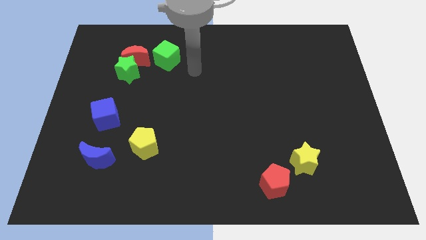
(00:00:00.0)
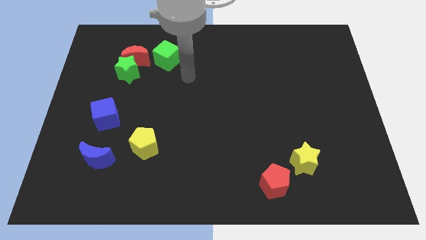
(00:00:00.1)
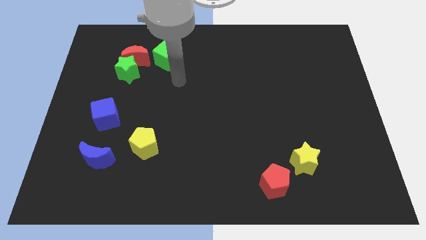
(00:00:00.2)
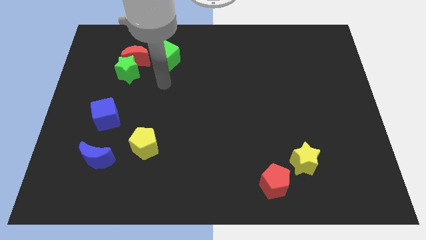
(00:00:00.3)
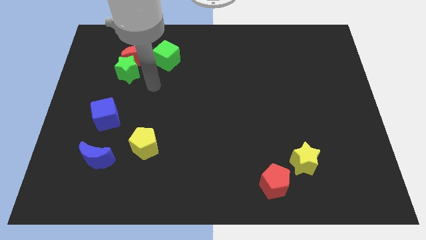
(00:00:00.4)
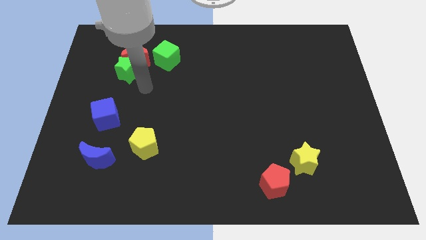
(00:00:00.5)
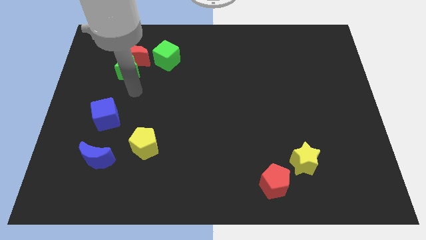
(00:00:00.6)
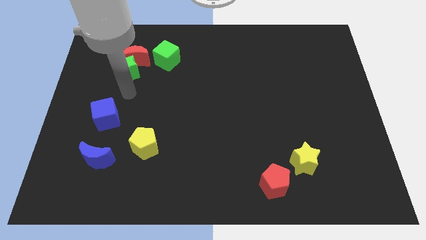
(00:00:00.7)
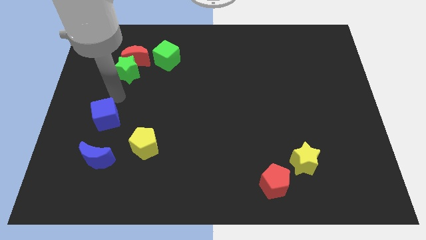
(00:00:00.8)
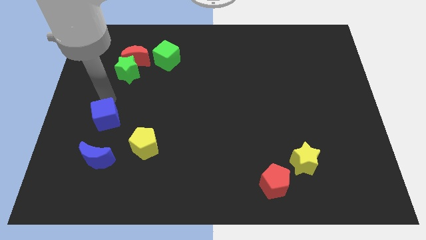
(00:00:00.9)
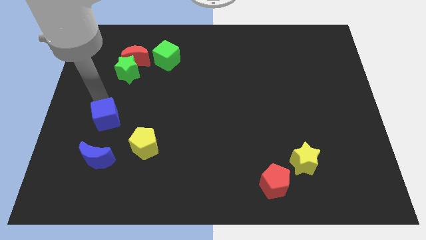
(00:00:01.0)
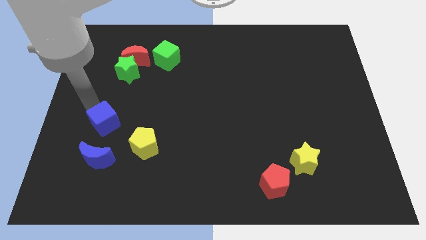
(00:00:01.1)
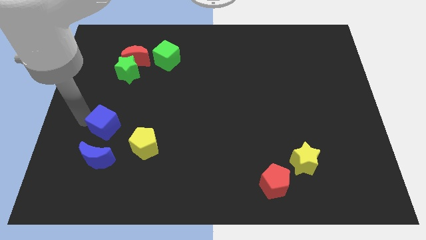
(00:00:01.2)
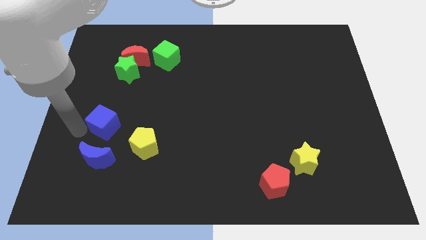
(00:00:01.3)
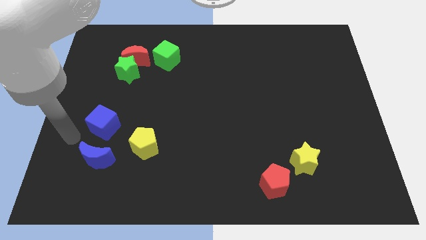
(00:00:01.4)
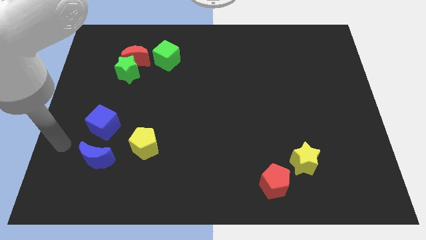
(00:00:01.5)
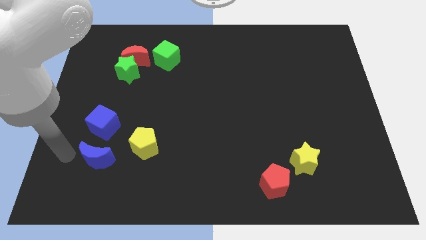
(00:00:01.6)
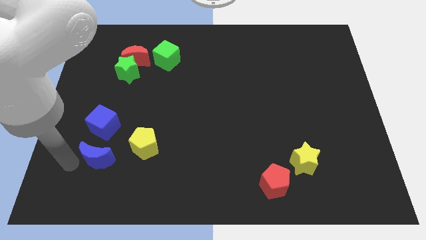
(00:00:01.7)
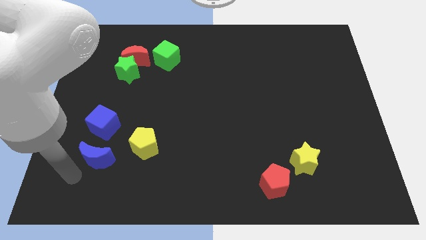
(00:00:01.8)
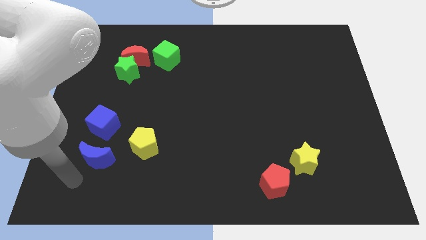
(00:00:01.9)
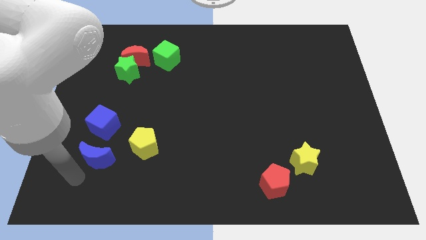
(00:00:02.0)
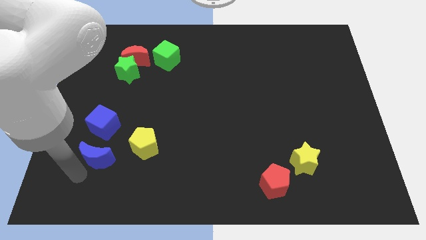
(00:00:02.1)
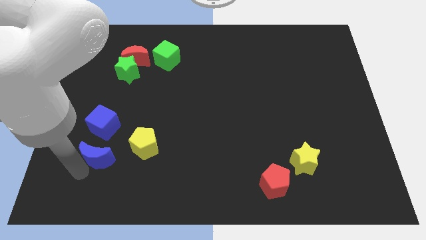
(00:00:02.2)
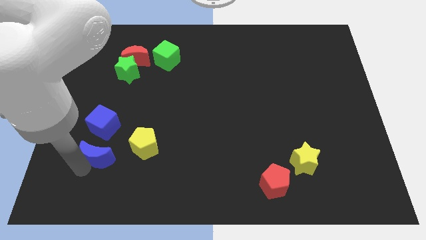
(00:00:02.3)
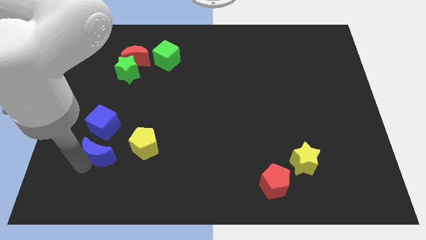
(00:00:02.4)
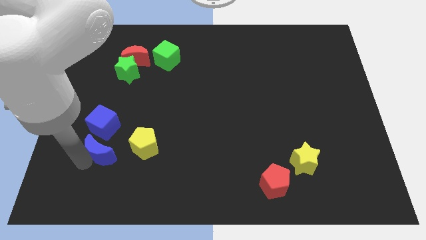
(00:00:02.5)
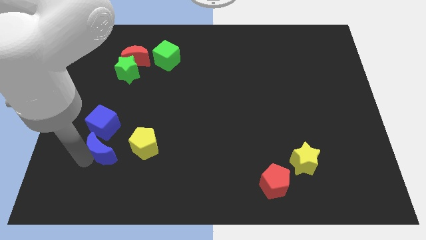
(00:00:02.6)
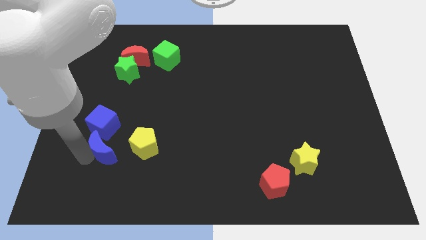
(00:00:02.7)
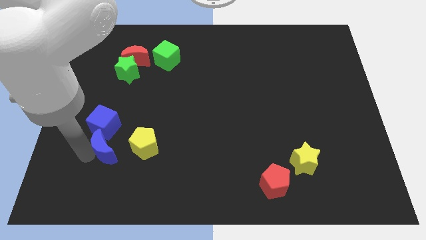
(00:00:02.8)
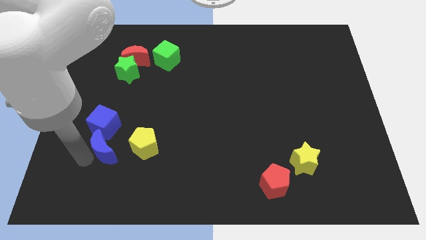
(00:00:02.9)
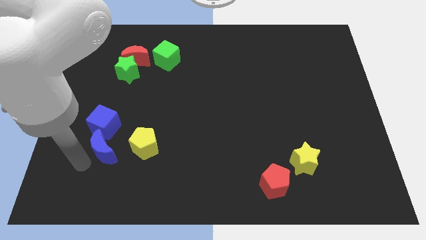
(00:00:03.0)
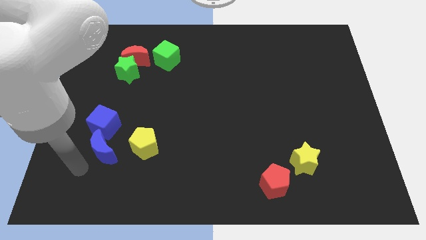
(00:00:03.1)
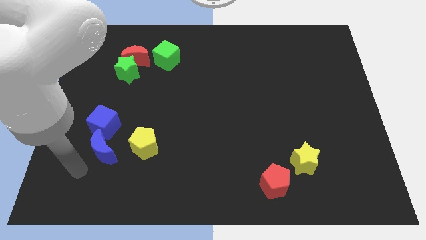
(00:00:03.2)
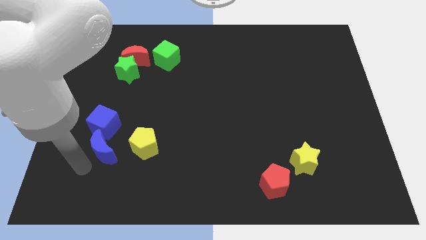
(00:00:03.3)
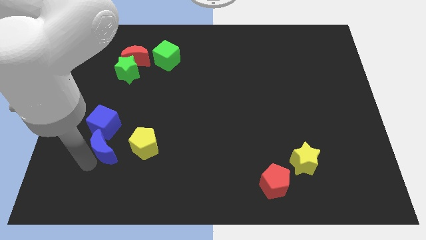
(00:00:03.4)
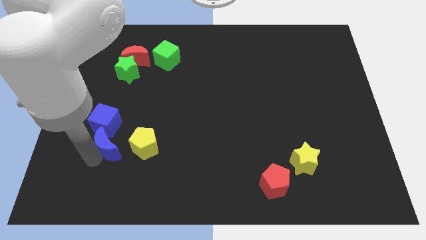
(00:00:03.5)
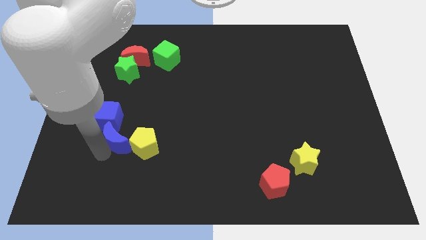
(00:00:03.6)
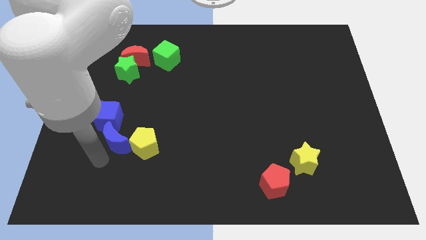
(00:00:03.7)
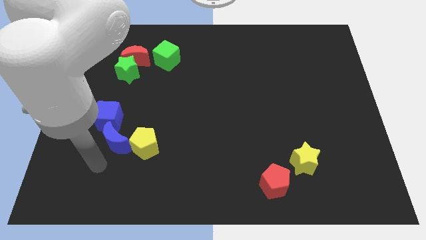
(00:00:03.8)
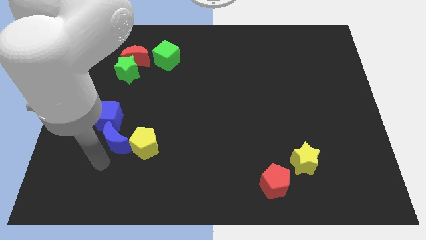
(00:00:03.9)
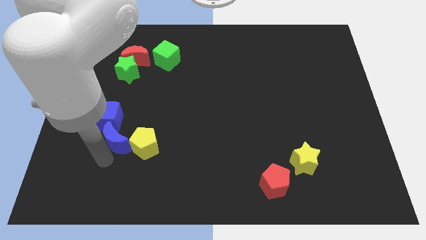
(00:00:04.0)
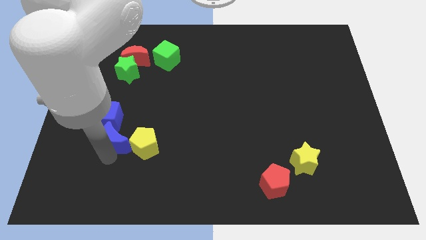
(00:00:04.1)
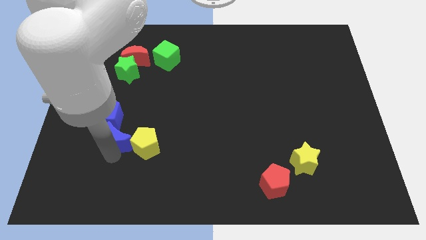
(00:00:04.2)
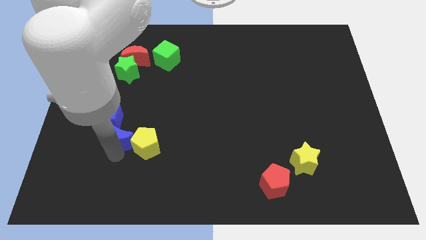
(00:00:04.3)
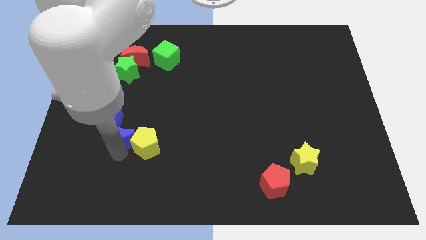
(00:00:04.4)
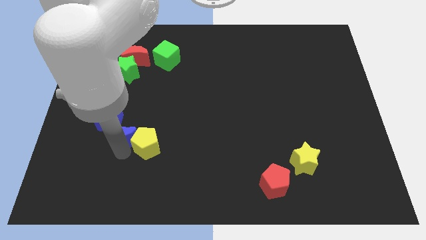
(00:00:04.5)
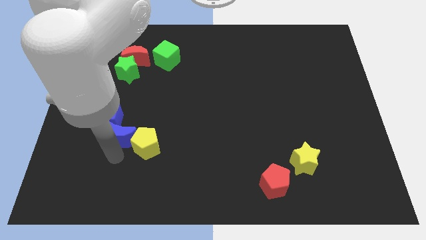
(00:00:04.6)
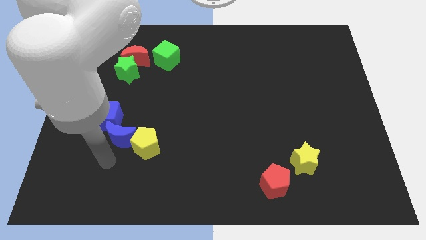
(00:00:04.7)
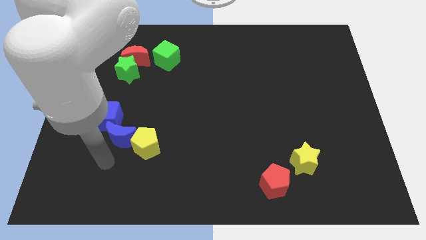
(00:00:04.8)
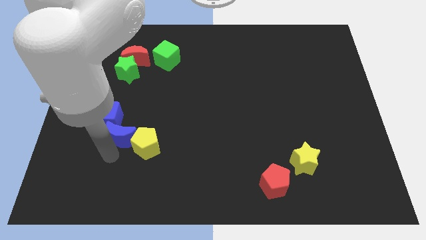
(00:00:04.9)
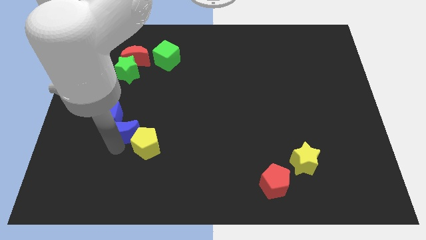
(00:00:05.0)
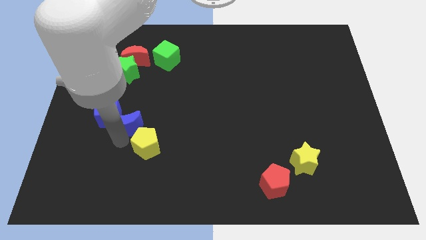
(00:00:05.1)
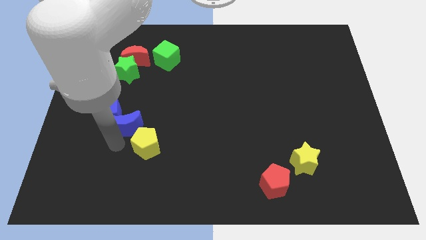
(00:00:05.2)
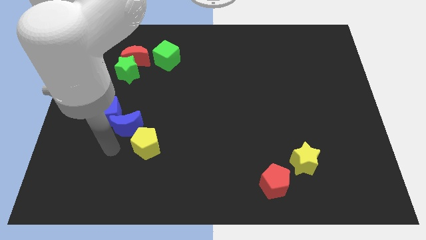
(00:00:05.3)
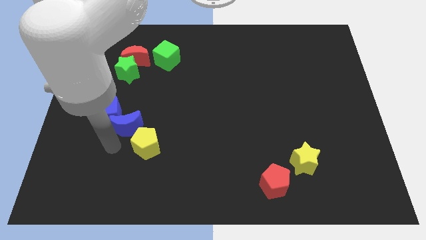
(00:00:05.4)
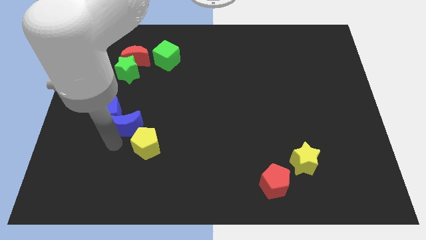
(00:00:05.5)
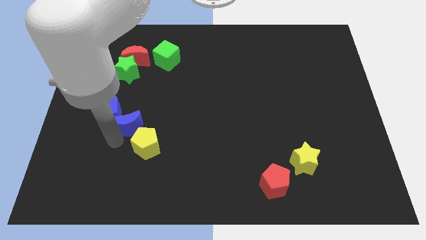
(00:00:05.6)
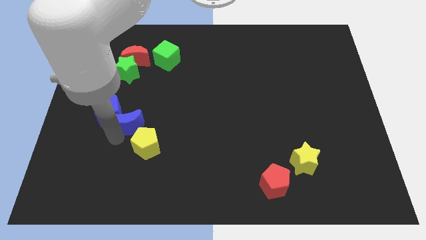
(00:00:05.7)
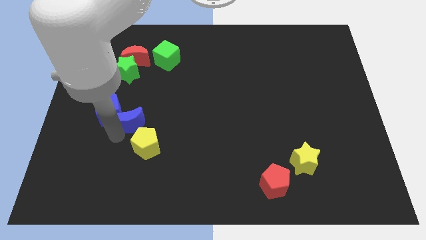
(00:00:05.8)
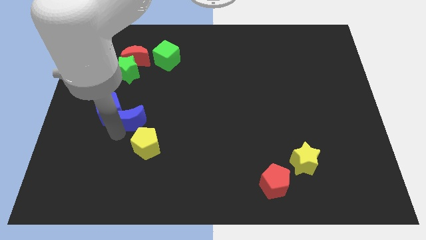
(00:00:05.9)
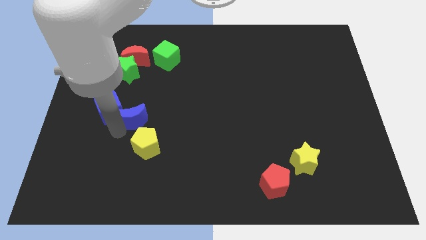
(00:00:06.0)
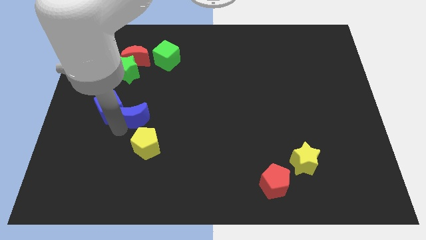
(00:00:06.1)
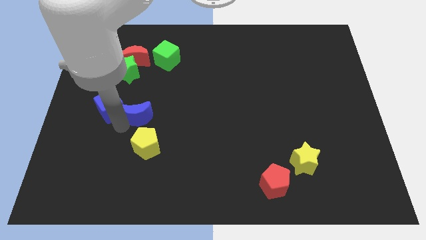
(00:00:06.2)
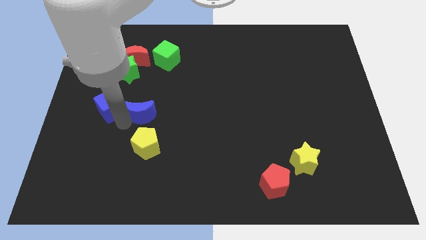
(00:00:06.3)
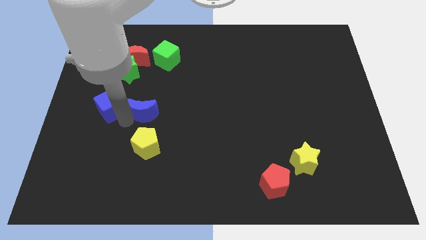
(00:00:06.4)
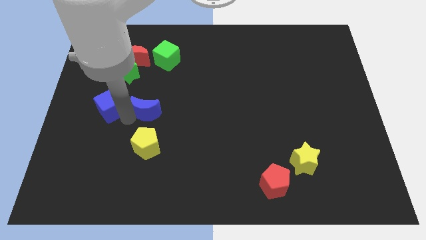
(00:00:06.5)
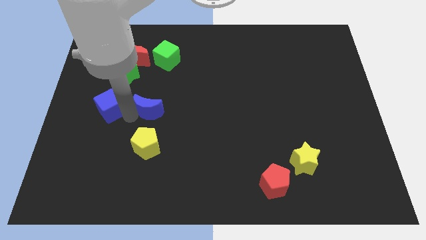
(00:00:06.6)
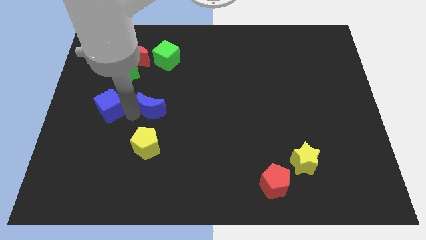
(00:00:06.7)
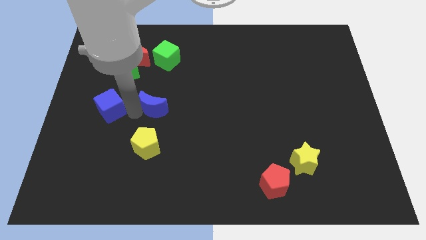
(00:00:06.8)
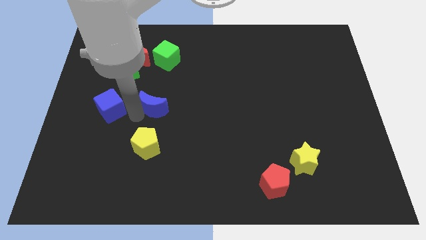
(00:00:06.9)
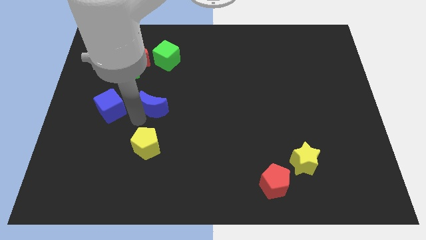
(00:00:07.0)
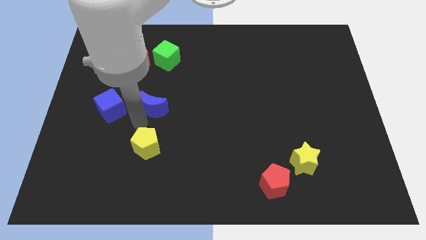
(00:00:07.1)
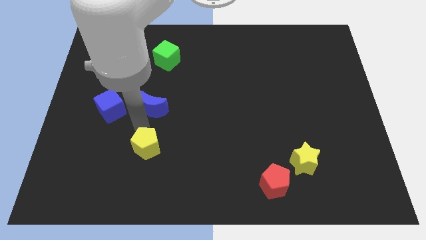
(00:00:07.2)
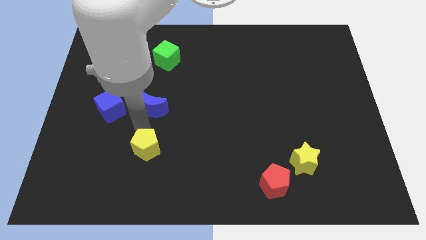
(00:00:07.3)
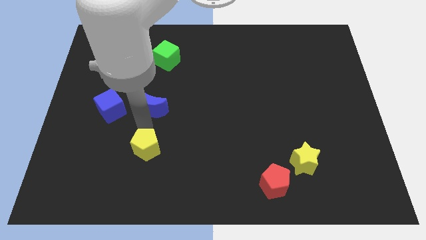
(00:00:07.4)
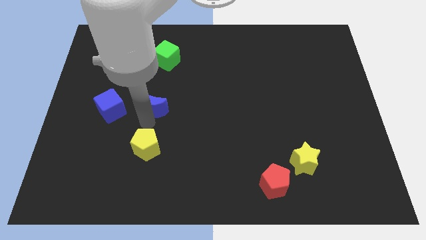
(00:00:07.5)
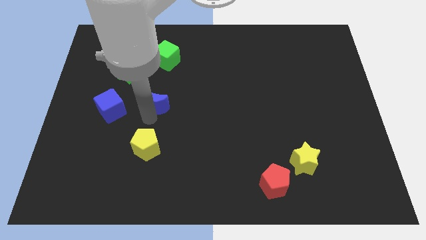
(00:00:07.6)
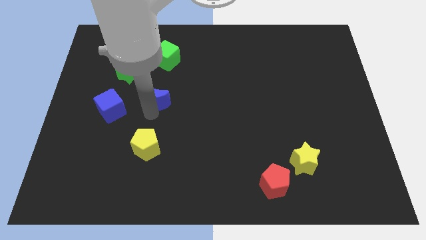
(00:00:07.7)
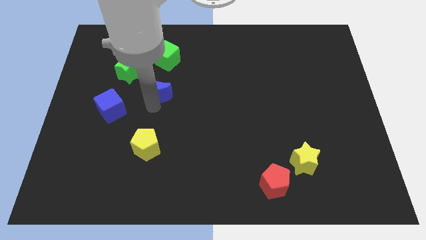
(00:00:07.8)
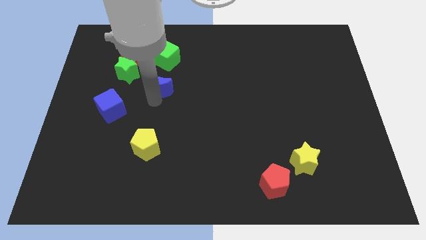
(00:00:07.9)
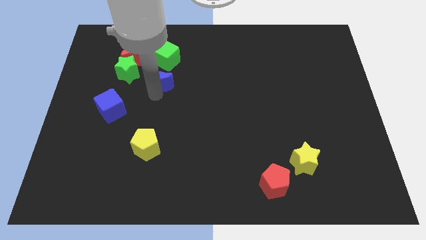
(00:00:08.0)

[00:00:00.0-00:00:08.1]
move the blue moon to the right side of the green star
